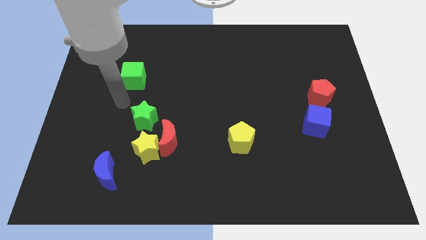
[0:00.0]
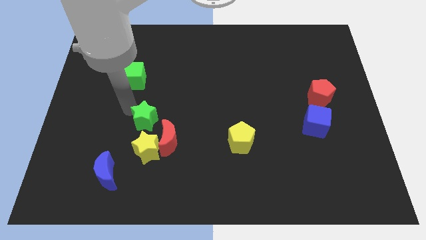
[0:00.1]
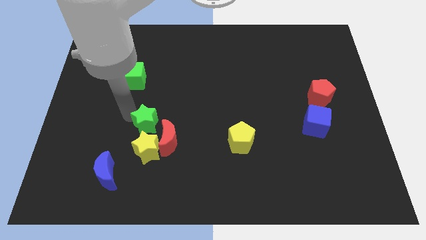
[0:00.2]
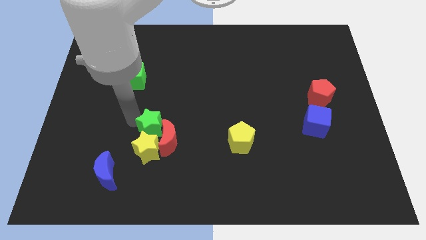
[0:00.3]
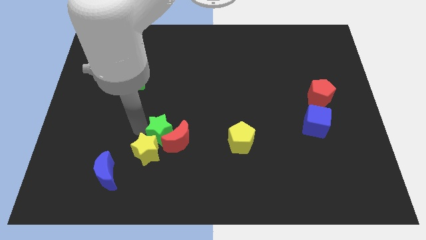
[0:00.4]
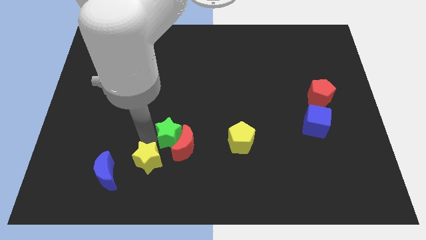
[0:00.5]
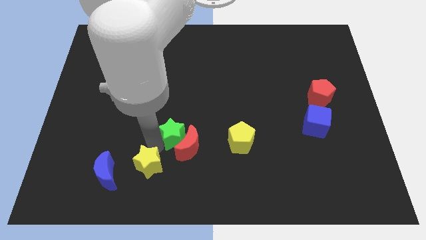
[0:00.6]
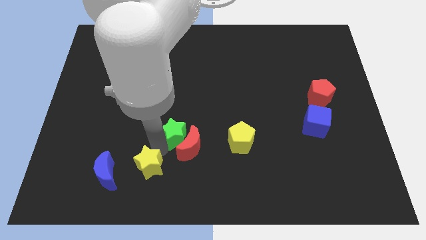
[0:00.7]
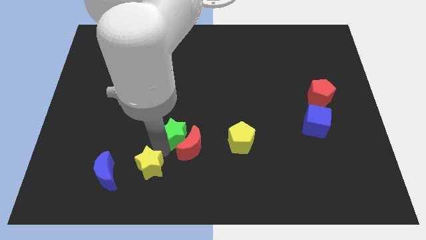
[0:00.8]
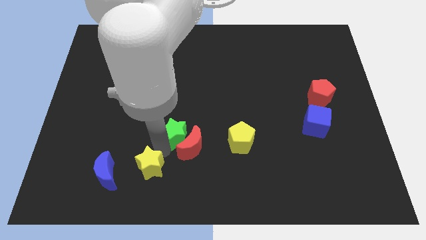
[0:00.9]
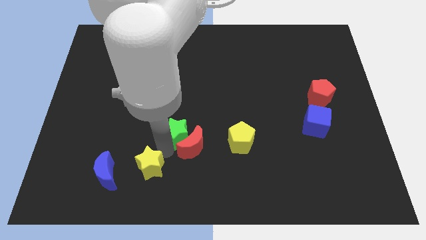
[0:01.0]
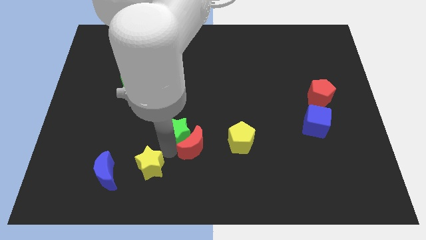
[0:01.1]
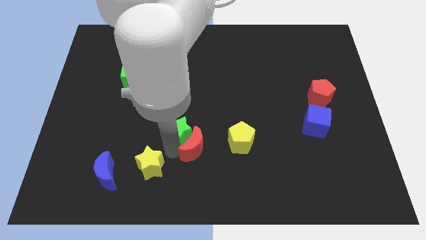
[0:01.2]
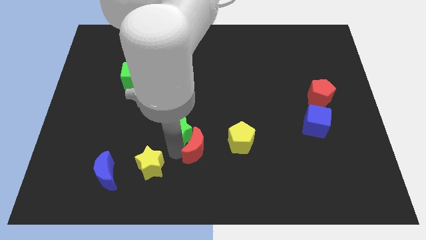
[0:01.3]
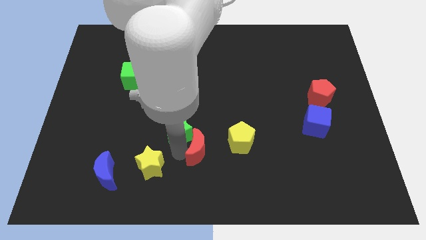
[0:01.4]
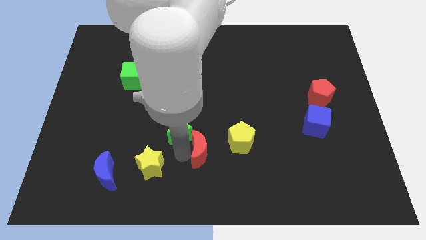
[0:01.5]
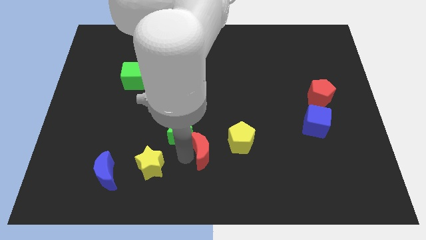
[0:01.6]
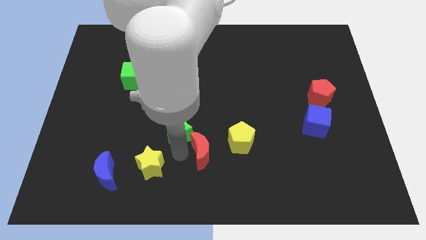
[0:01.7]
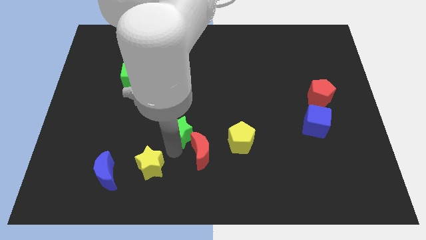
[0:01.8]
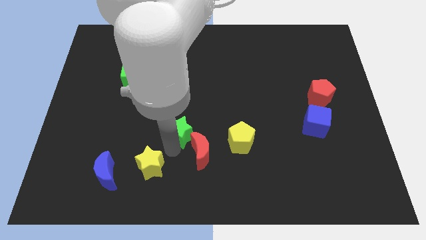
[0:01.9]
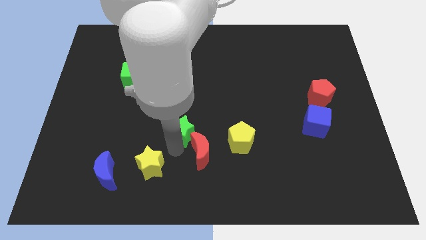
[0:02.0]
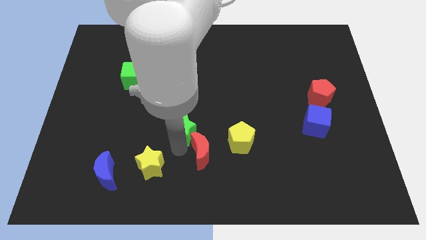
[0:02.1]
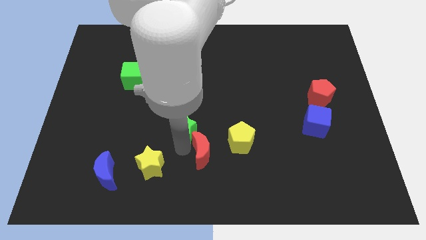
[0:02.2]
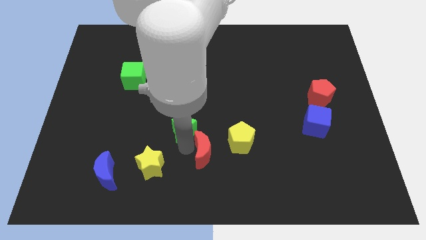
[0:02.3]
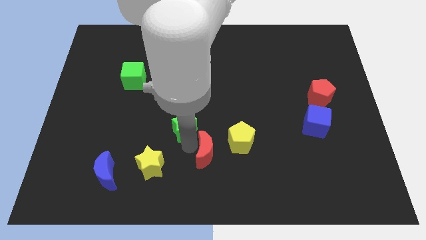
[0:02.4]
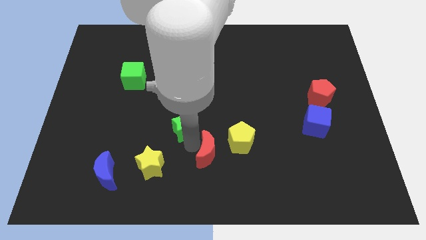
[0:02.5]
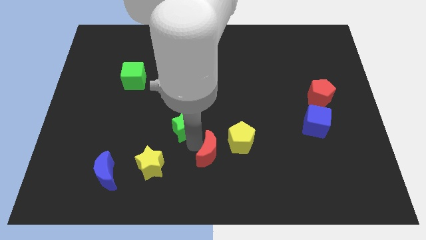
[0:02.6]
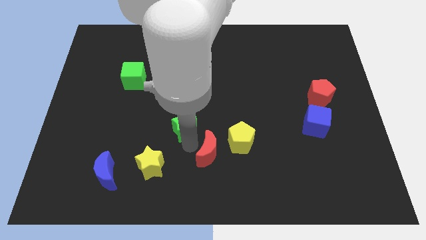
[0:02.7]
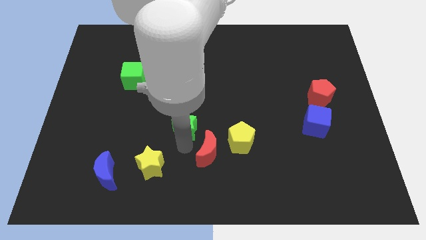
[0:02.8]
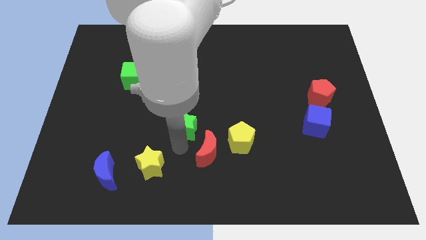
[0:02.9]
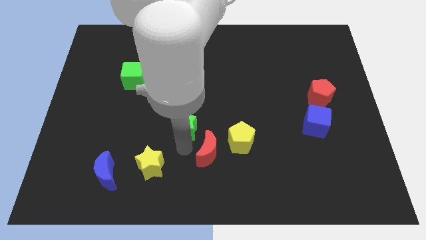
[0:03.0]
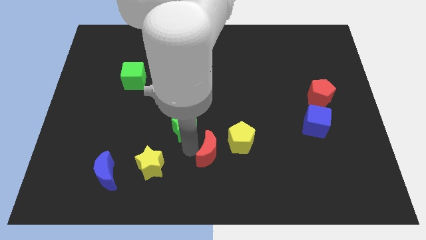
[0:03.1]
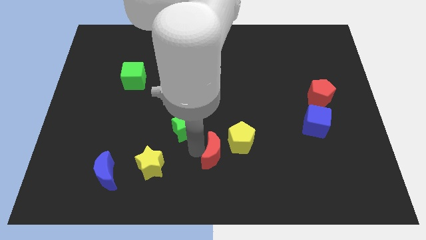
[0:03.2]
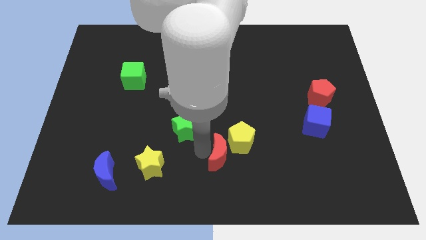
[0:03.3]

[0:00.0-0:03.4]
separate the red moon from the yellow star and green star

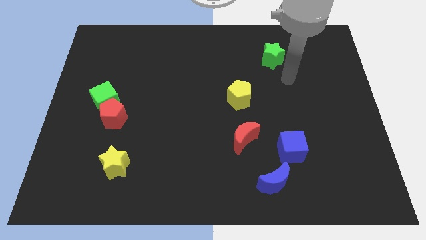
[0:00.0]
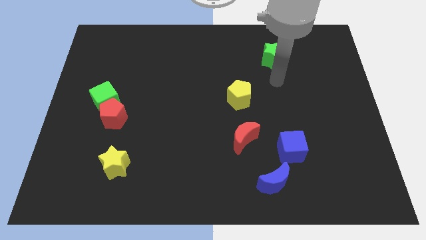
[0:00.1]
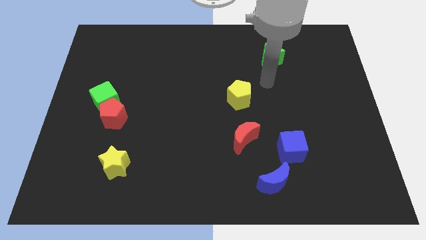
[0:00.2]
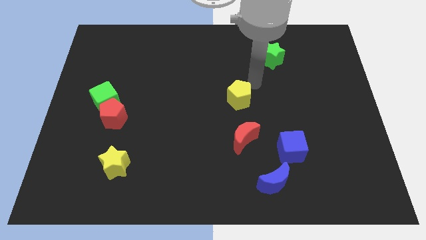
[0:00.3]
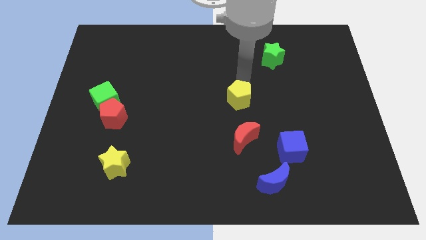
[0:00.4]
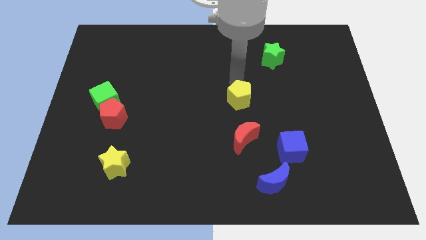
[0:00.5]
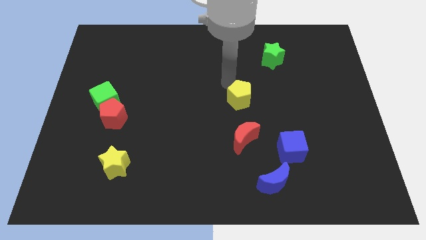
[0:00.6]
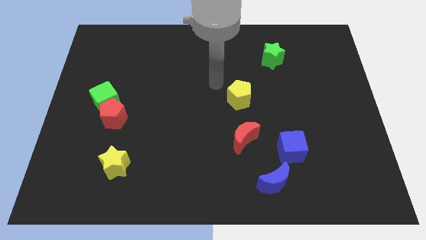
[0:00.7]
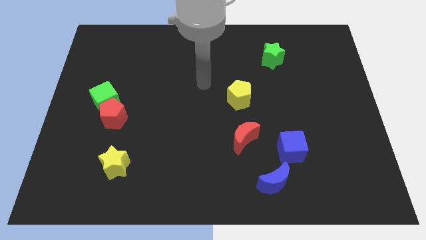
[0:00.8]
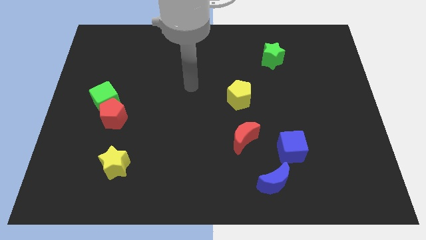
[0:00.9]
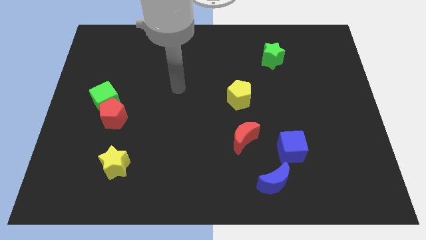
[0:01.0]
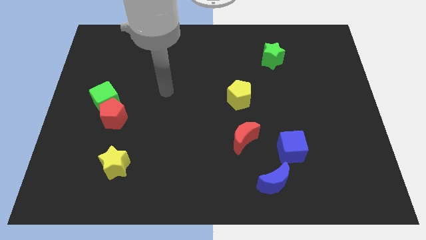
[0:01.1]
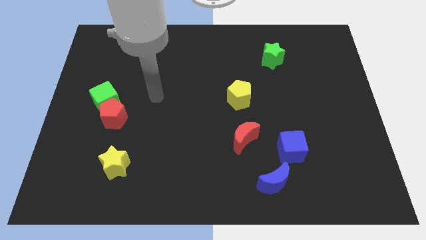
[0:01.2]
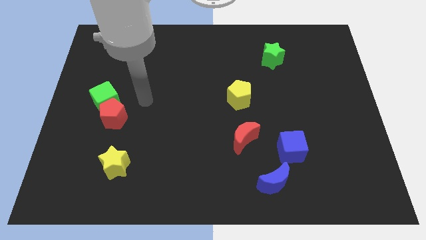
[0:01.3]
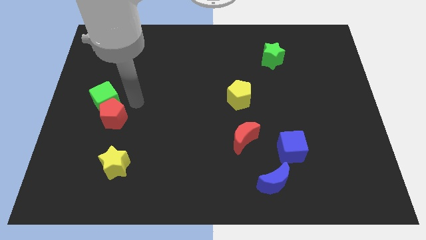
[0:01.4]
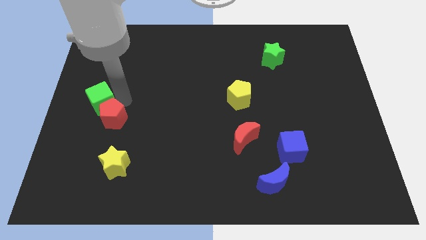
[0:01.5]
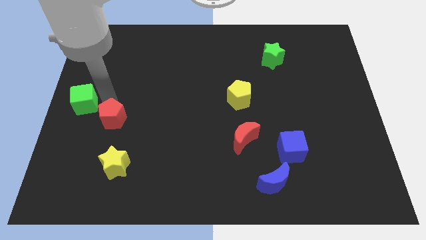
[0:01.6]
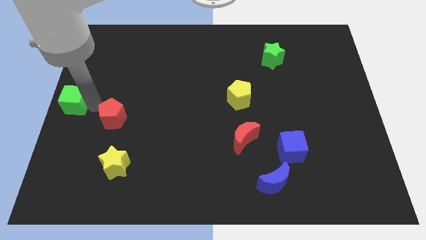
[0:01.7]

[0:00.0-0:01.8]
pull the red pentagon apart from the green cube

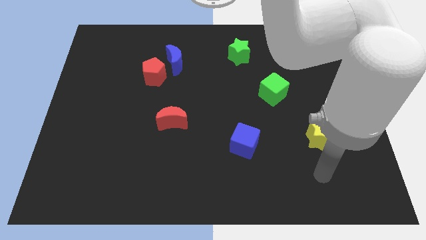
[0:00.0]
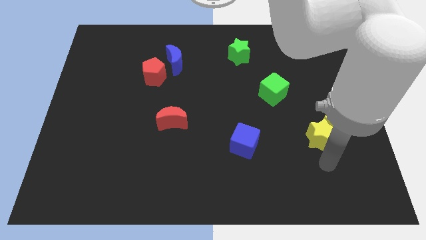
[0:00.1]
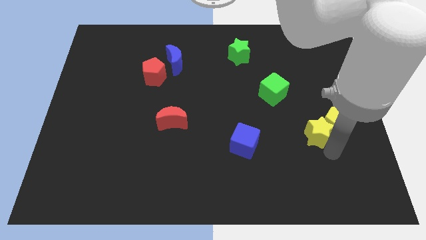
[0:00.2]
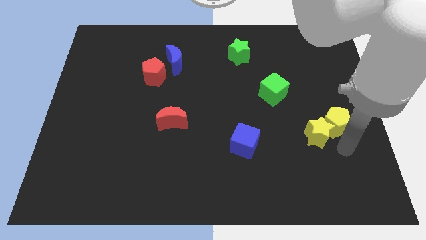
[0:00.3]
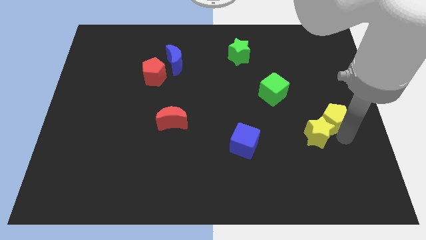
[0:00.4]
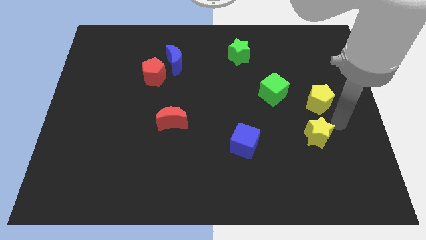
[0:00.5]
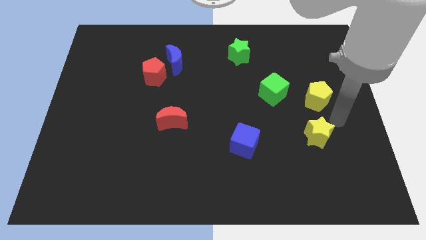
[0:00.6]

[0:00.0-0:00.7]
move the yellow star away from the yellow pentagon

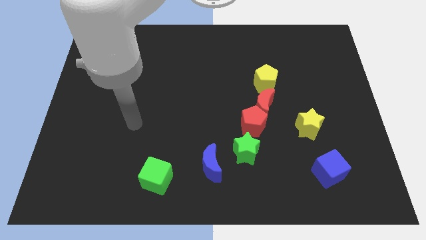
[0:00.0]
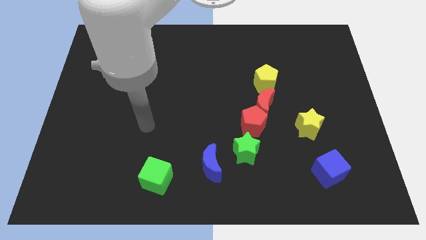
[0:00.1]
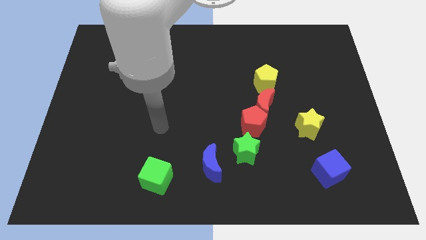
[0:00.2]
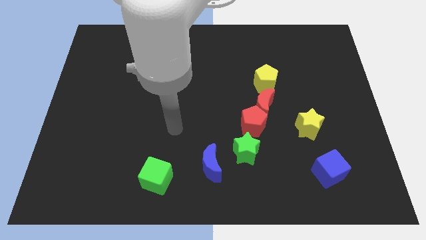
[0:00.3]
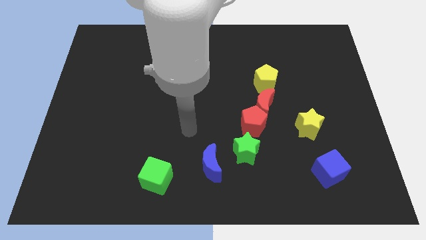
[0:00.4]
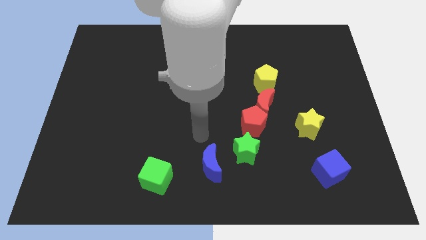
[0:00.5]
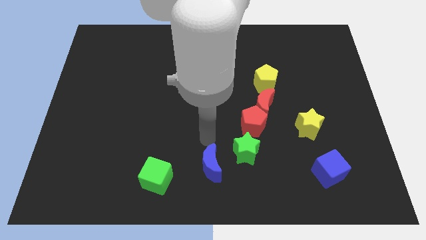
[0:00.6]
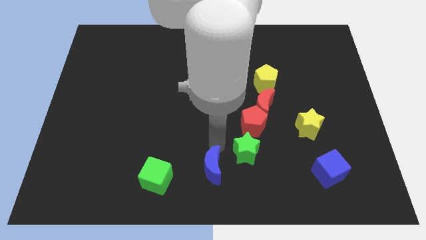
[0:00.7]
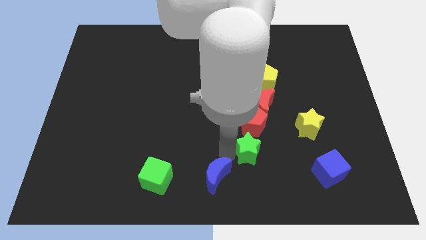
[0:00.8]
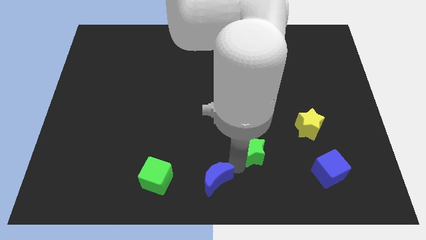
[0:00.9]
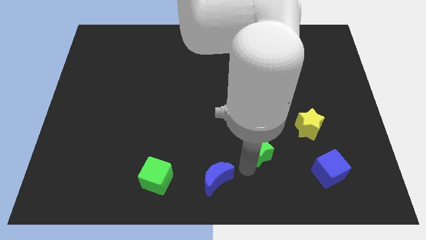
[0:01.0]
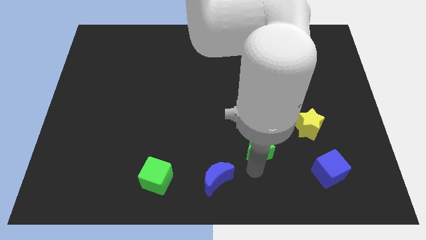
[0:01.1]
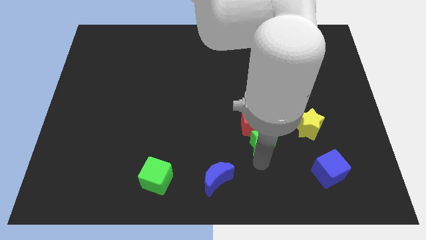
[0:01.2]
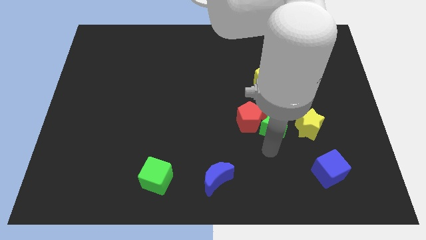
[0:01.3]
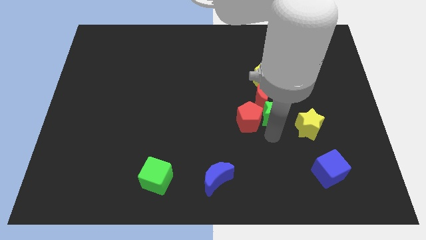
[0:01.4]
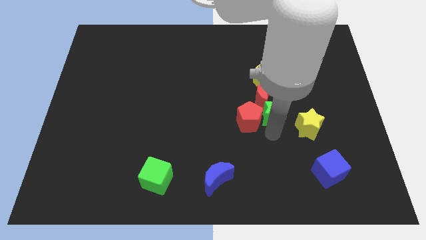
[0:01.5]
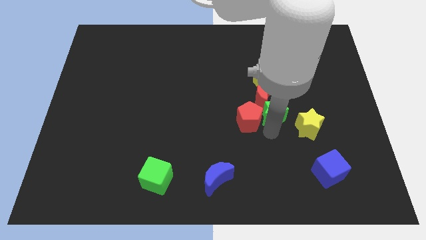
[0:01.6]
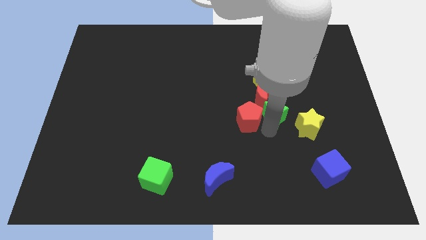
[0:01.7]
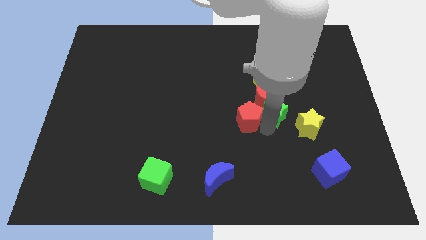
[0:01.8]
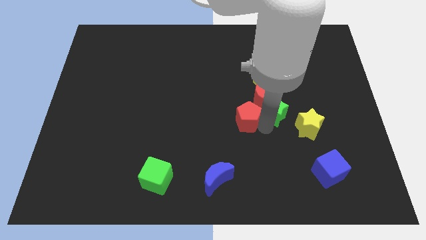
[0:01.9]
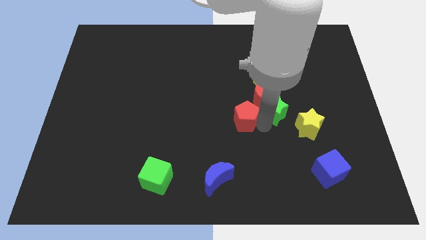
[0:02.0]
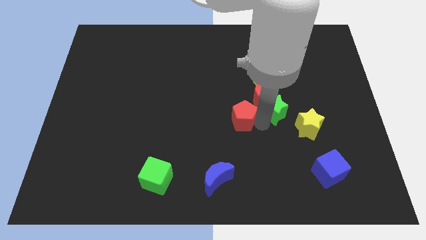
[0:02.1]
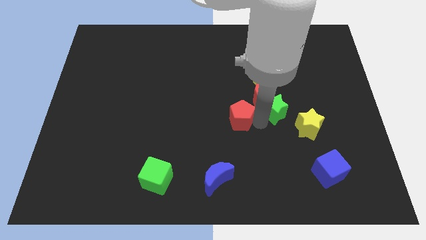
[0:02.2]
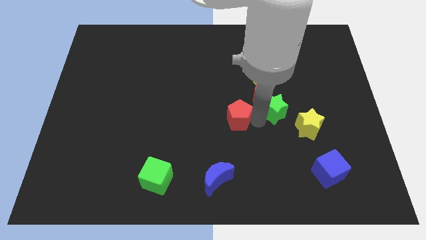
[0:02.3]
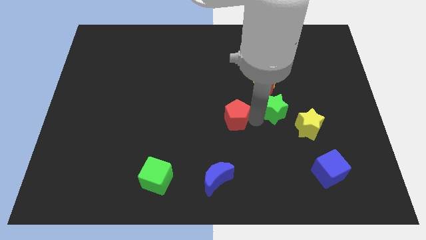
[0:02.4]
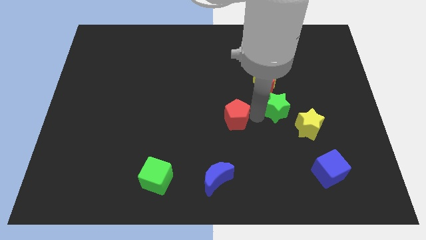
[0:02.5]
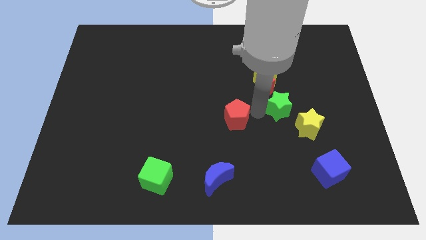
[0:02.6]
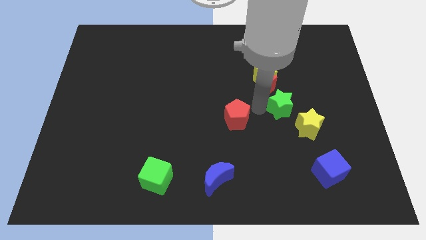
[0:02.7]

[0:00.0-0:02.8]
separate the red pentagon from the red moon and green star

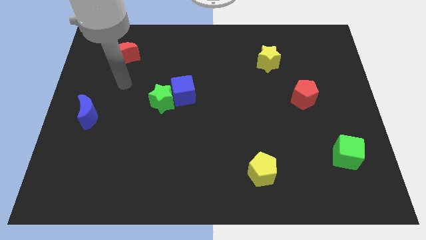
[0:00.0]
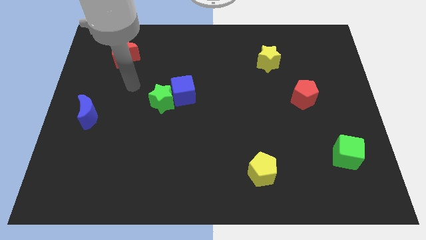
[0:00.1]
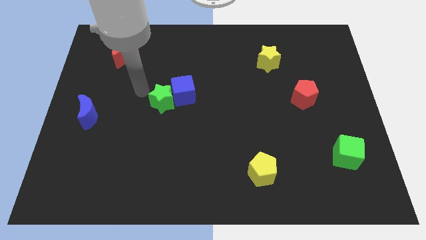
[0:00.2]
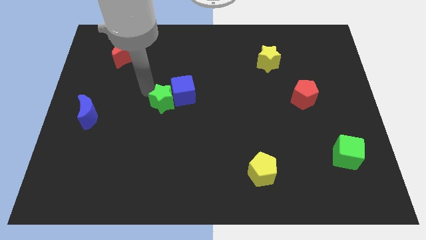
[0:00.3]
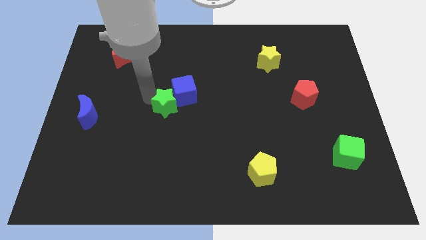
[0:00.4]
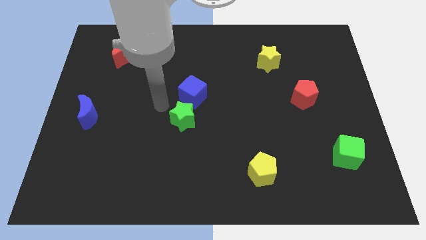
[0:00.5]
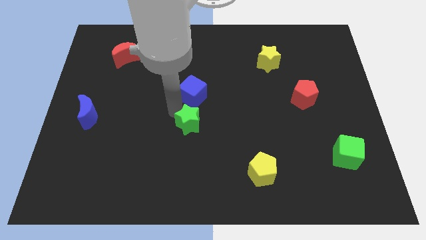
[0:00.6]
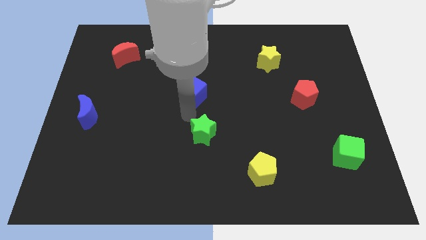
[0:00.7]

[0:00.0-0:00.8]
move the blue cube away from the green star
